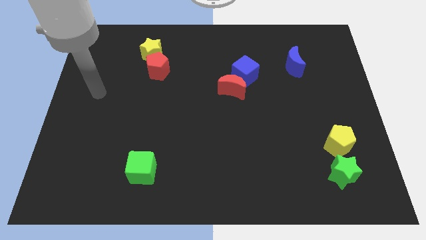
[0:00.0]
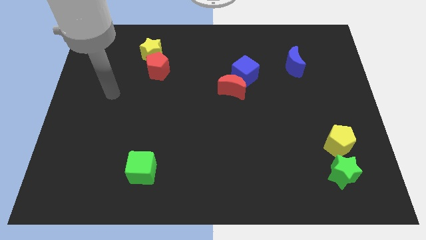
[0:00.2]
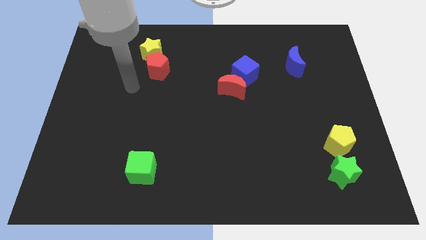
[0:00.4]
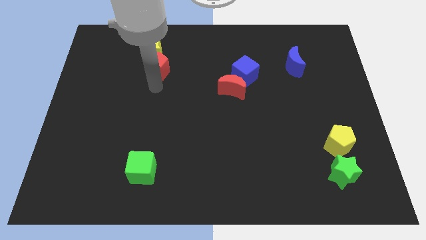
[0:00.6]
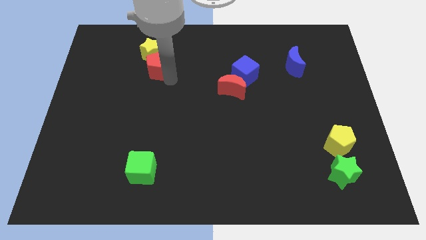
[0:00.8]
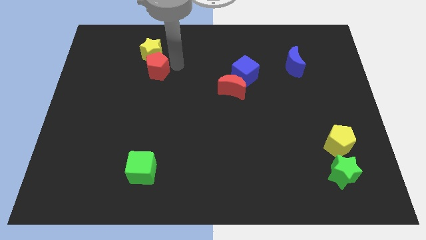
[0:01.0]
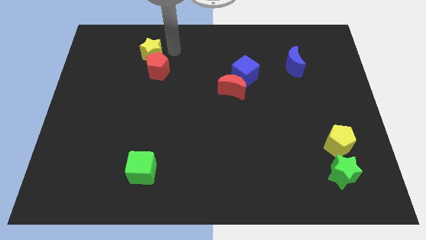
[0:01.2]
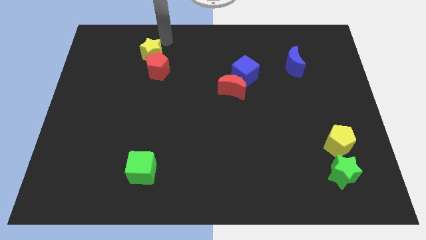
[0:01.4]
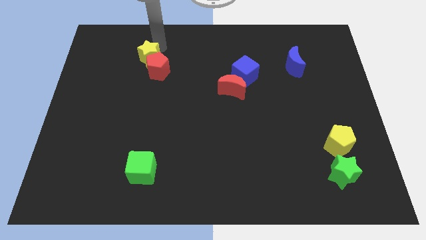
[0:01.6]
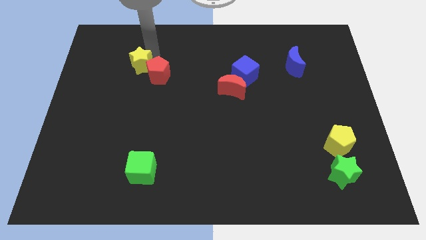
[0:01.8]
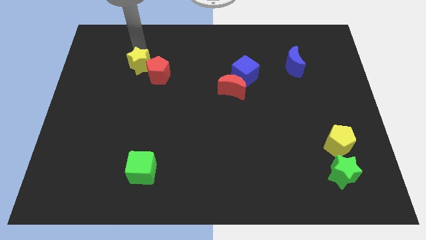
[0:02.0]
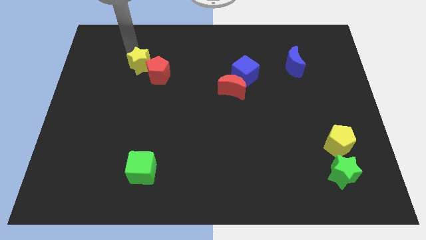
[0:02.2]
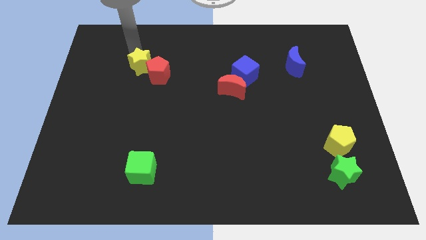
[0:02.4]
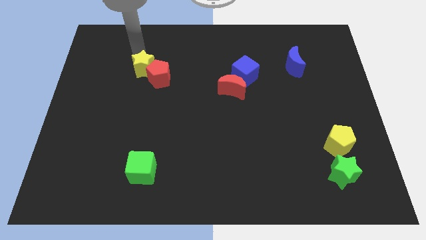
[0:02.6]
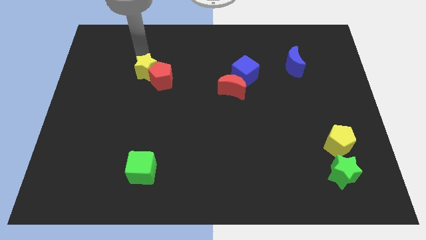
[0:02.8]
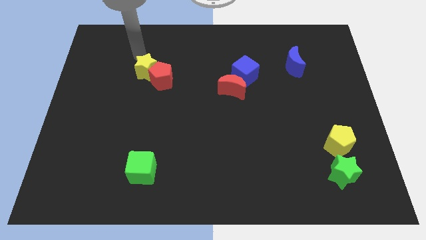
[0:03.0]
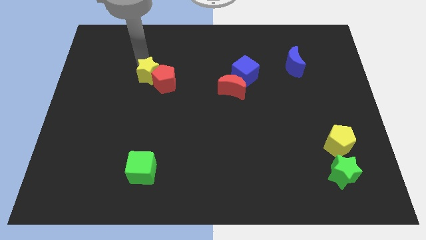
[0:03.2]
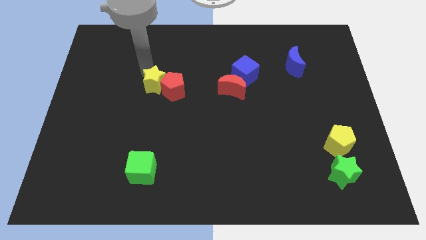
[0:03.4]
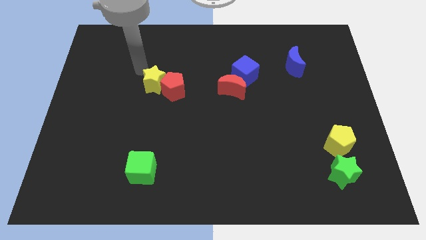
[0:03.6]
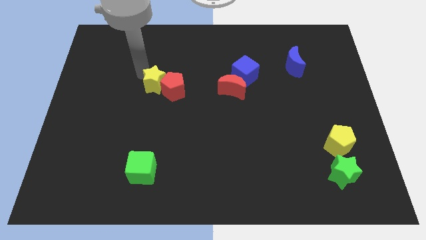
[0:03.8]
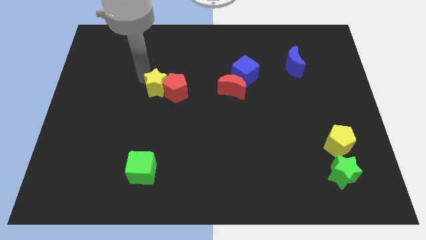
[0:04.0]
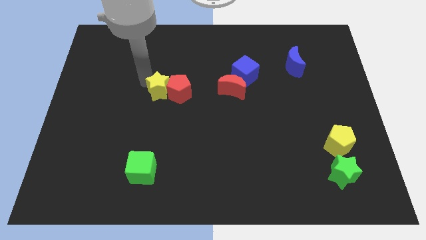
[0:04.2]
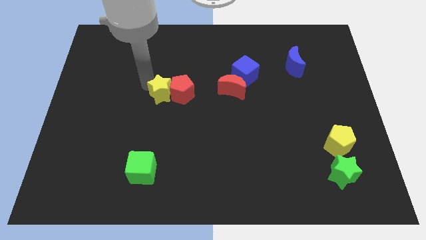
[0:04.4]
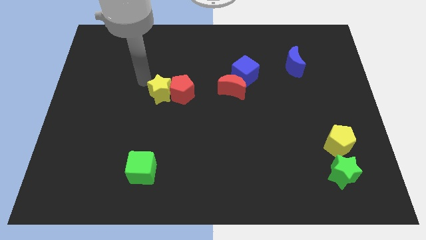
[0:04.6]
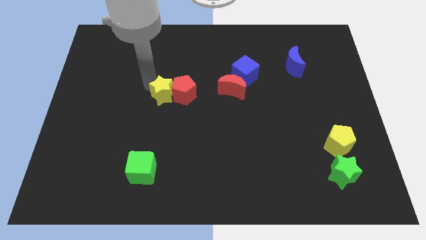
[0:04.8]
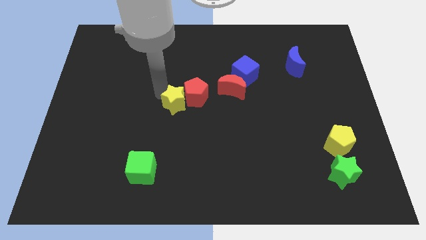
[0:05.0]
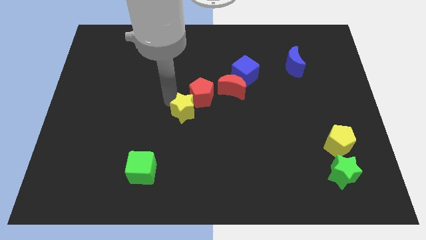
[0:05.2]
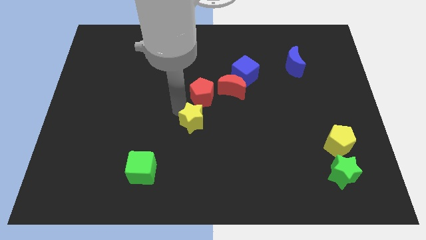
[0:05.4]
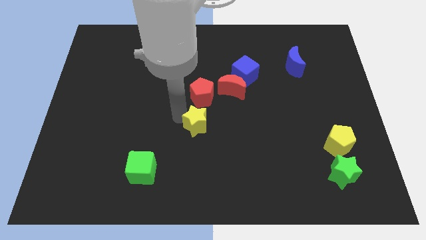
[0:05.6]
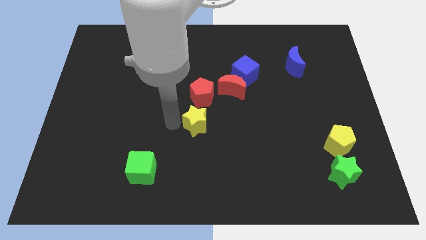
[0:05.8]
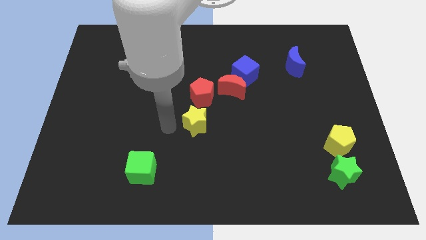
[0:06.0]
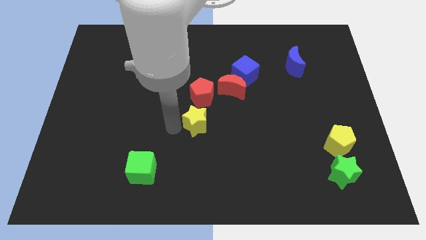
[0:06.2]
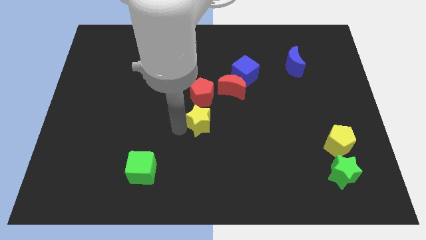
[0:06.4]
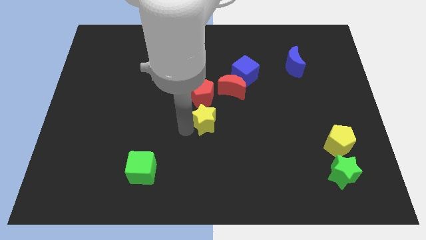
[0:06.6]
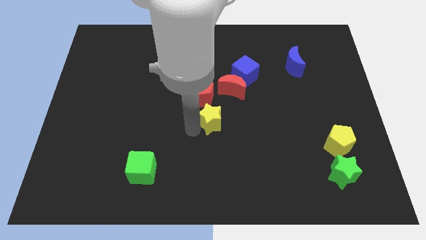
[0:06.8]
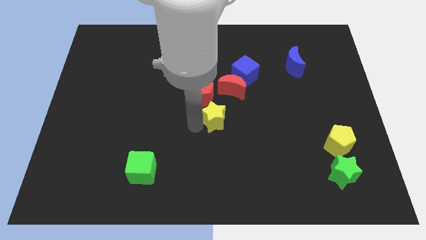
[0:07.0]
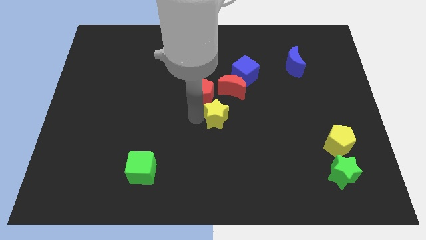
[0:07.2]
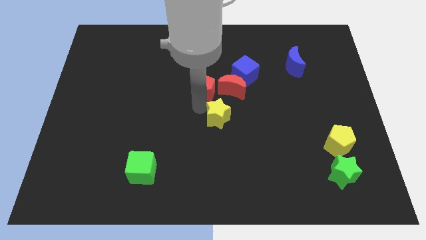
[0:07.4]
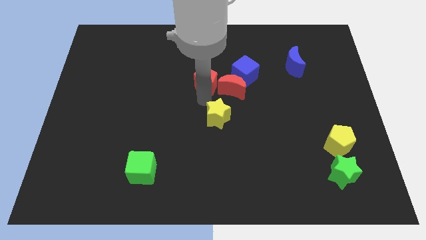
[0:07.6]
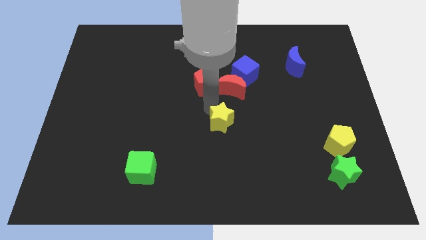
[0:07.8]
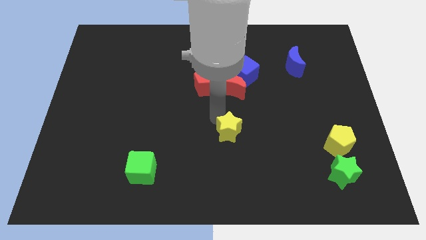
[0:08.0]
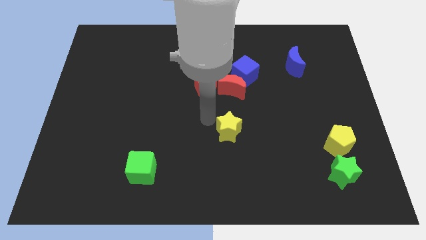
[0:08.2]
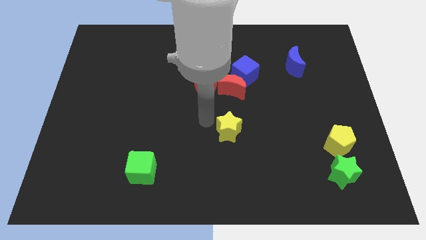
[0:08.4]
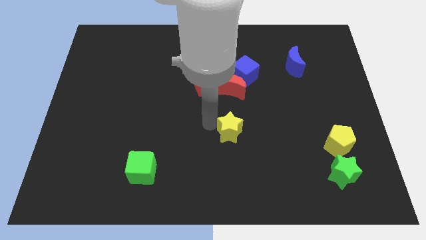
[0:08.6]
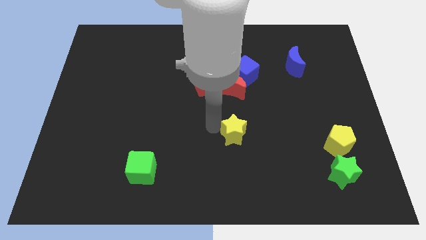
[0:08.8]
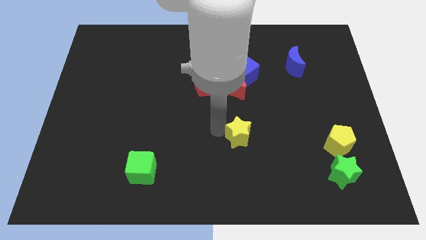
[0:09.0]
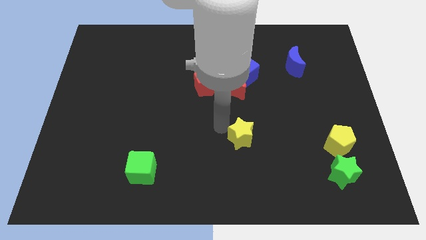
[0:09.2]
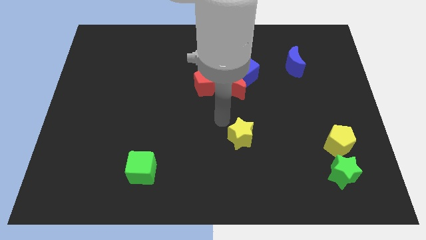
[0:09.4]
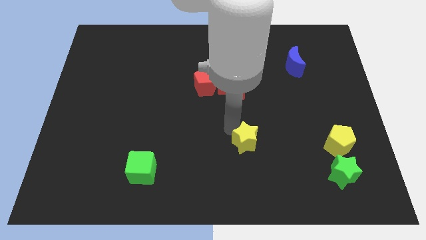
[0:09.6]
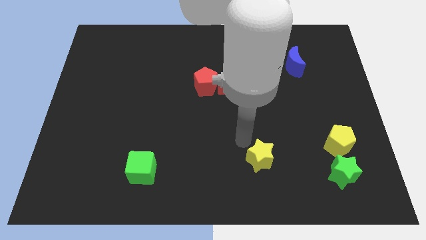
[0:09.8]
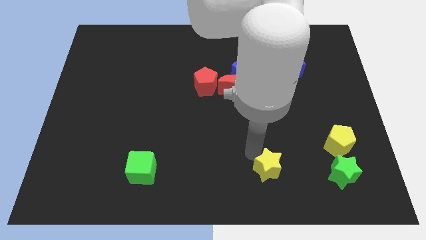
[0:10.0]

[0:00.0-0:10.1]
slide the yellow star to the left of the green star

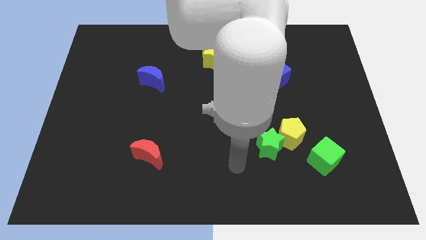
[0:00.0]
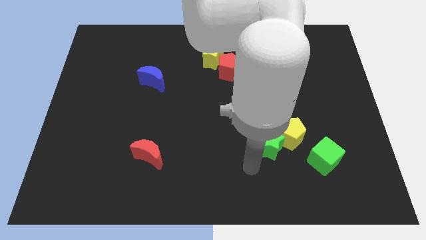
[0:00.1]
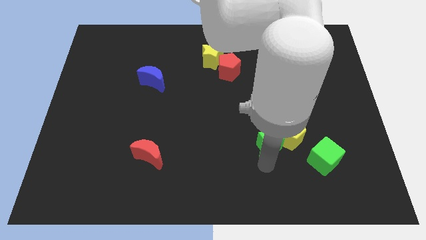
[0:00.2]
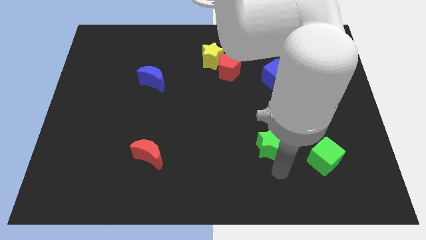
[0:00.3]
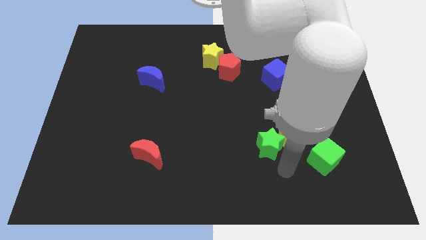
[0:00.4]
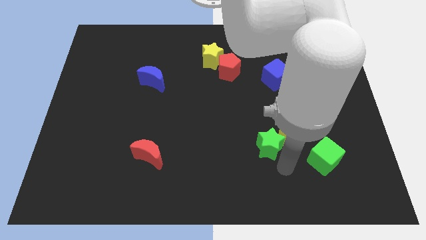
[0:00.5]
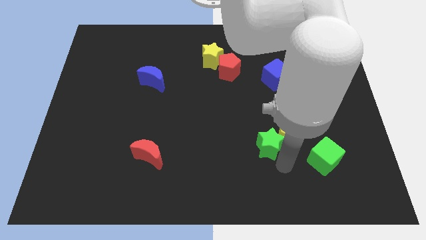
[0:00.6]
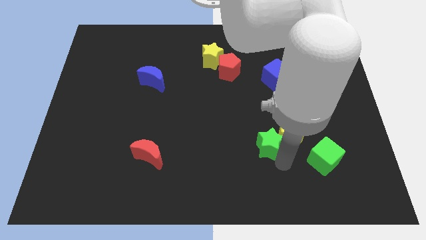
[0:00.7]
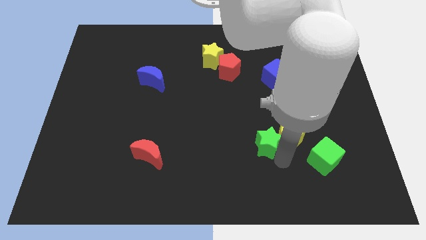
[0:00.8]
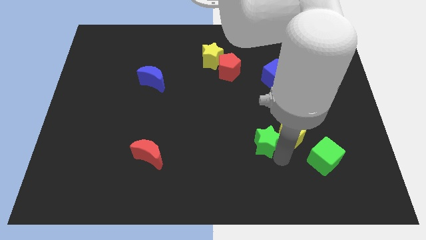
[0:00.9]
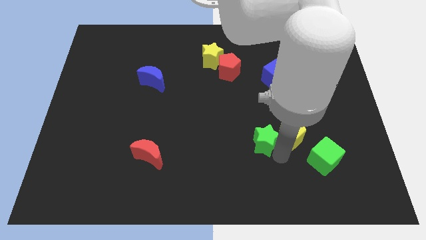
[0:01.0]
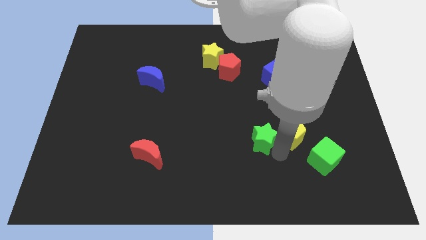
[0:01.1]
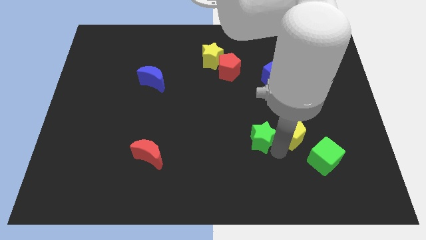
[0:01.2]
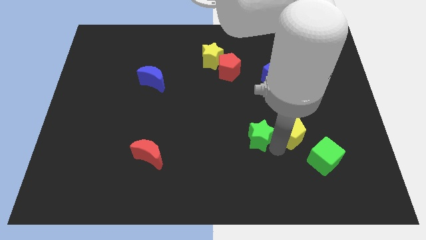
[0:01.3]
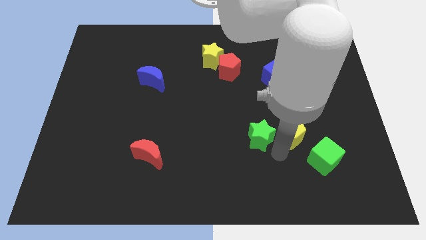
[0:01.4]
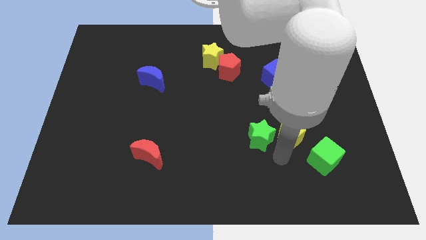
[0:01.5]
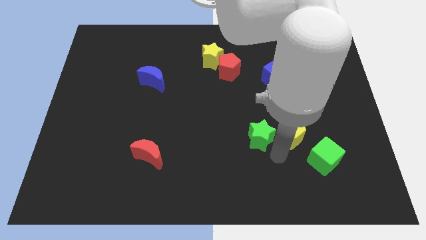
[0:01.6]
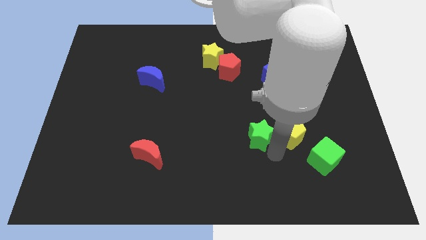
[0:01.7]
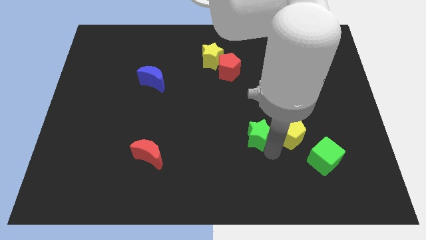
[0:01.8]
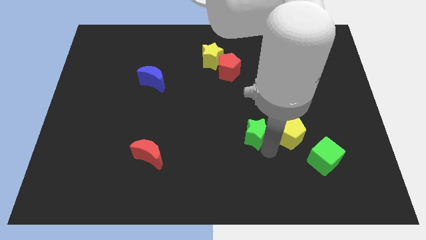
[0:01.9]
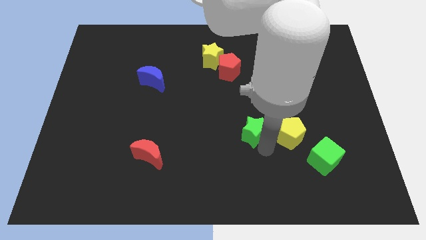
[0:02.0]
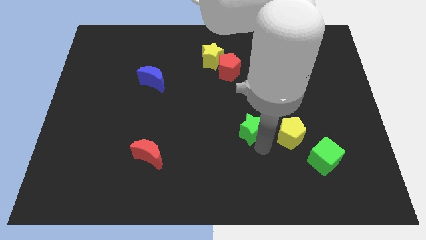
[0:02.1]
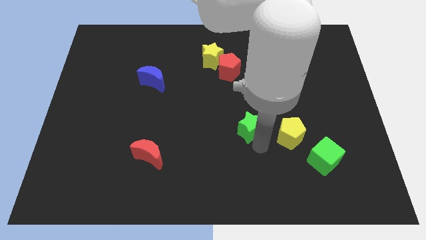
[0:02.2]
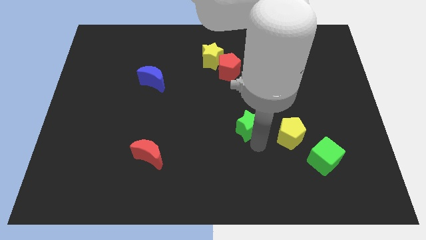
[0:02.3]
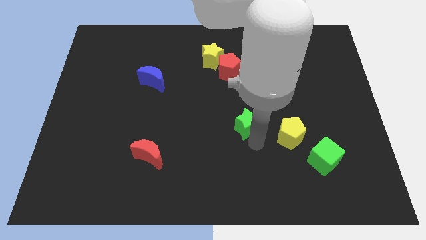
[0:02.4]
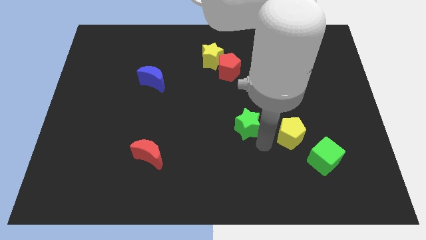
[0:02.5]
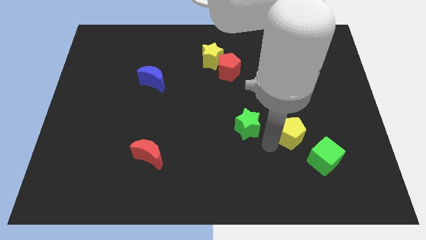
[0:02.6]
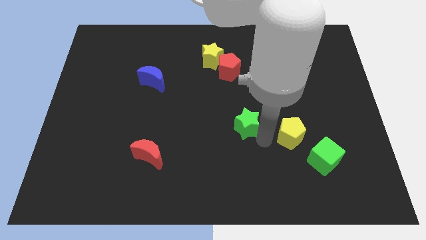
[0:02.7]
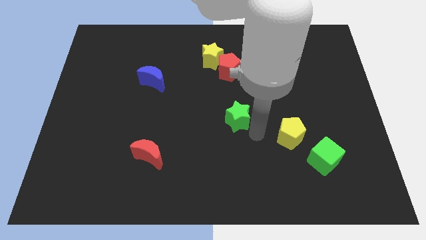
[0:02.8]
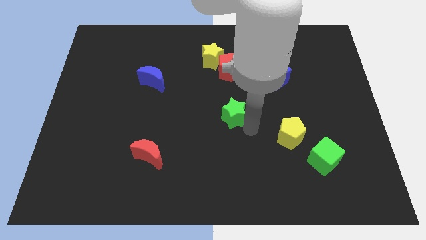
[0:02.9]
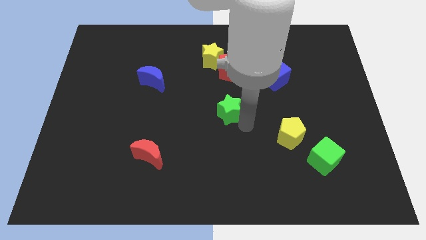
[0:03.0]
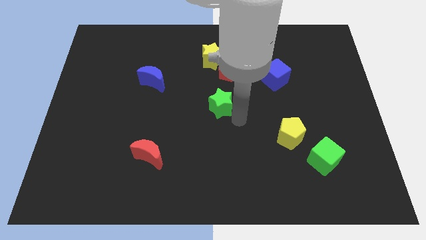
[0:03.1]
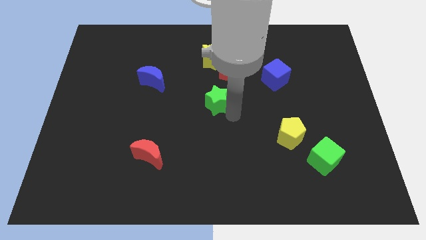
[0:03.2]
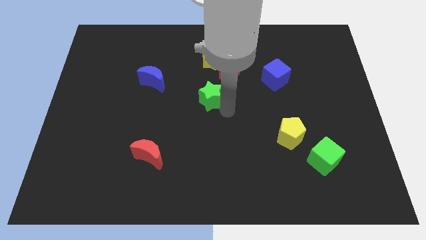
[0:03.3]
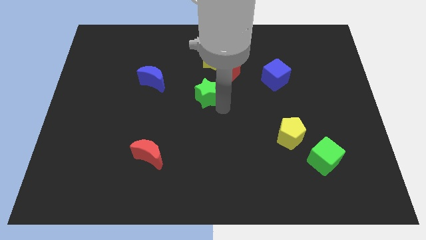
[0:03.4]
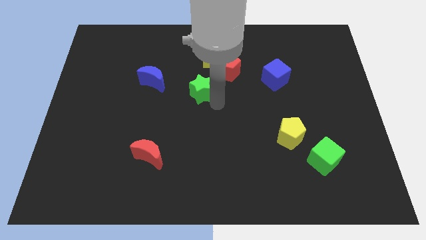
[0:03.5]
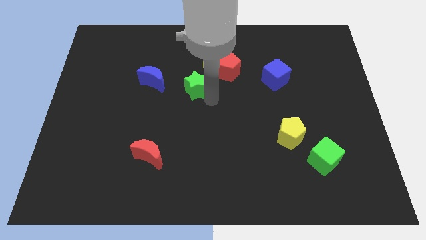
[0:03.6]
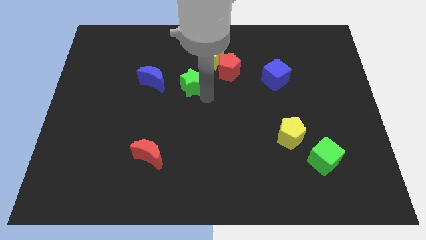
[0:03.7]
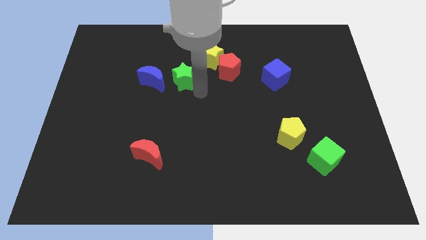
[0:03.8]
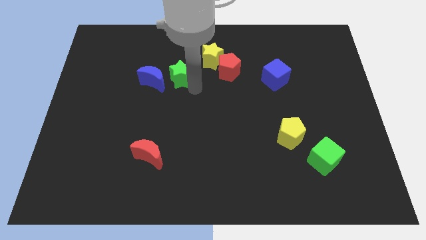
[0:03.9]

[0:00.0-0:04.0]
put the green star to the top right of the blue moon
